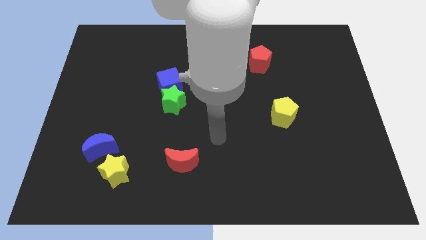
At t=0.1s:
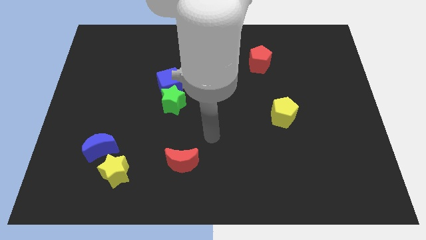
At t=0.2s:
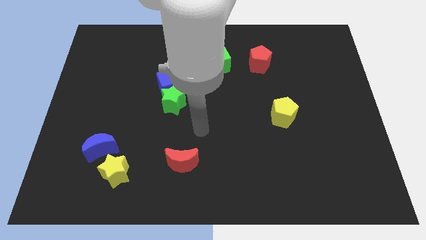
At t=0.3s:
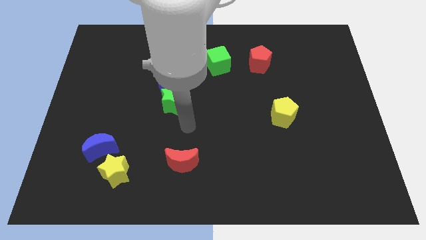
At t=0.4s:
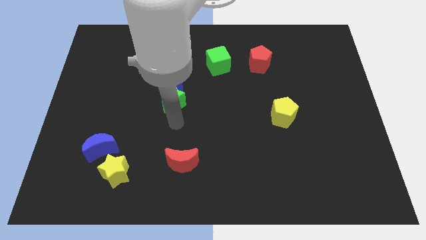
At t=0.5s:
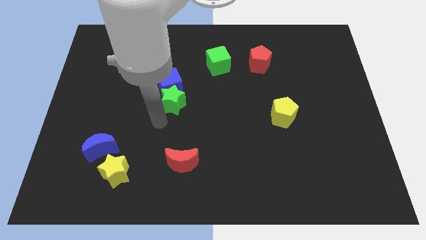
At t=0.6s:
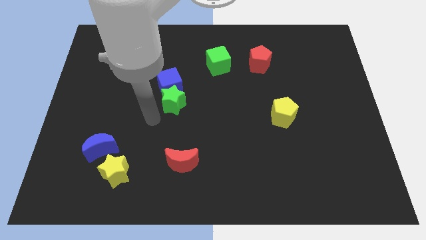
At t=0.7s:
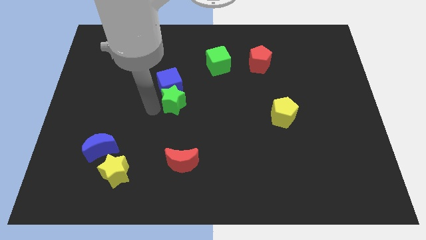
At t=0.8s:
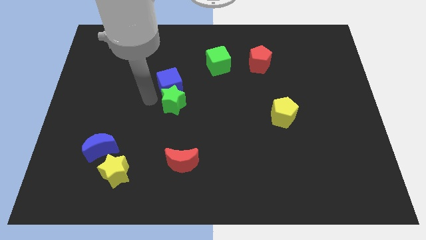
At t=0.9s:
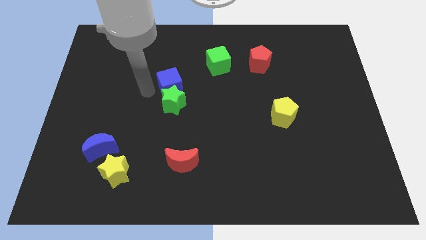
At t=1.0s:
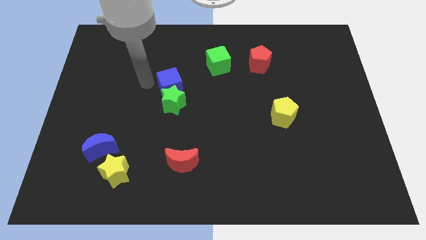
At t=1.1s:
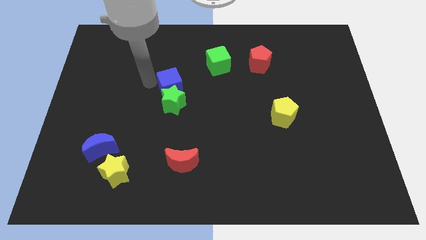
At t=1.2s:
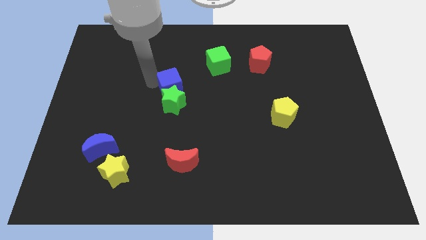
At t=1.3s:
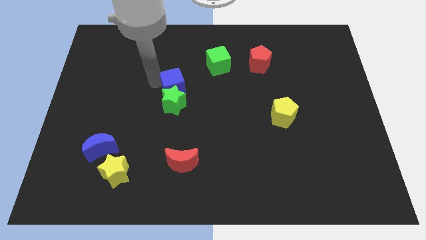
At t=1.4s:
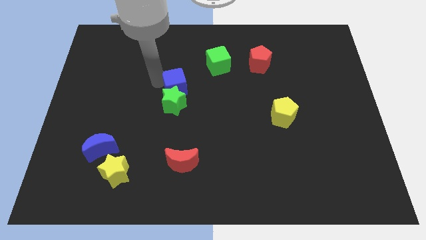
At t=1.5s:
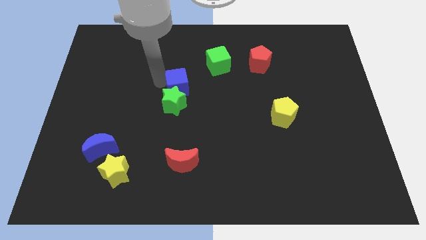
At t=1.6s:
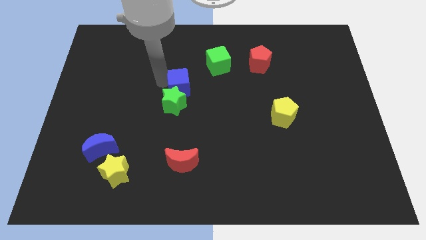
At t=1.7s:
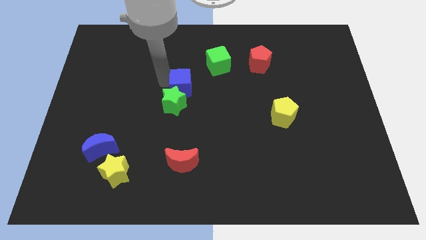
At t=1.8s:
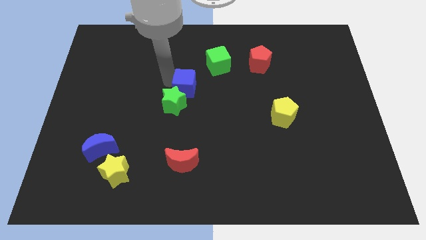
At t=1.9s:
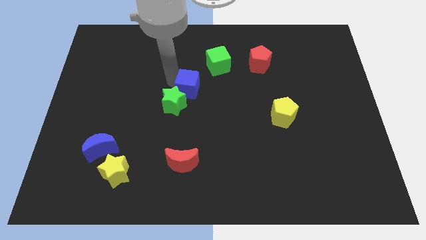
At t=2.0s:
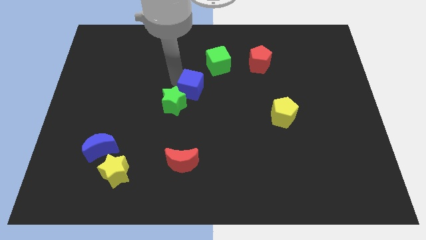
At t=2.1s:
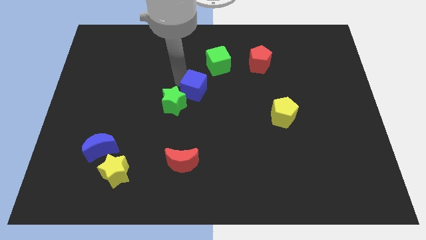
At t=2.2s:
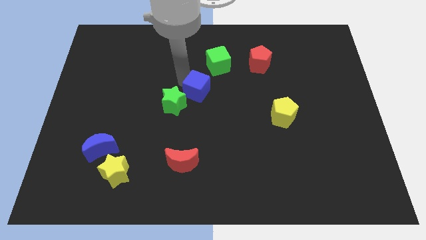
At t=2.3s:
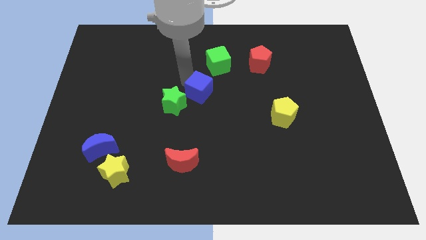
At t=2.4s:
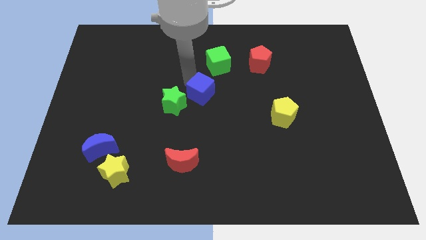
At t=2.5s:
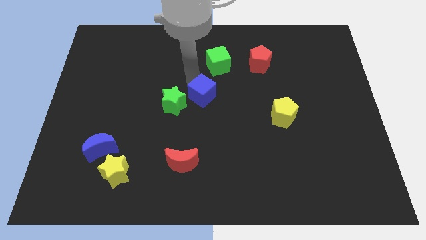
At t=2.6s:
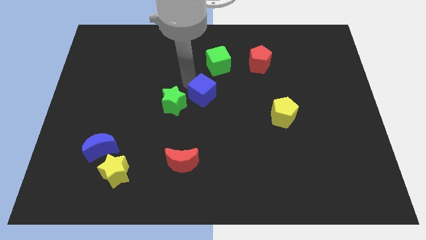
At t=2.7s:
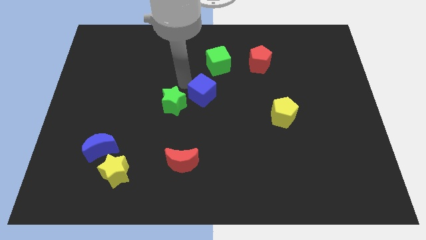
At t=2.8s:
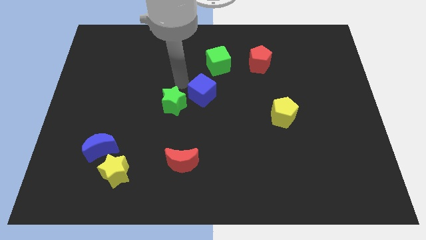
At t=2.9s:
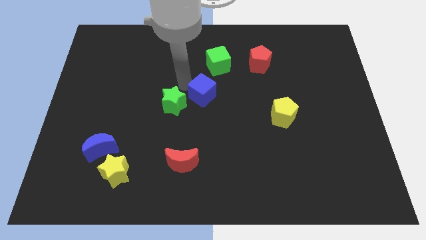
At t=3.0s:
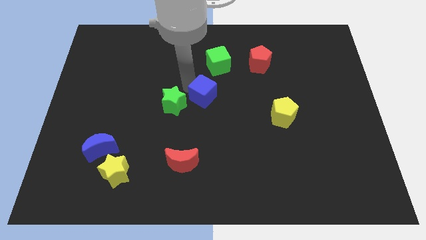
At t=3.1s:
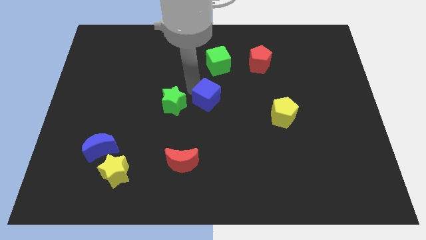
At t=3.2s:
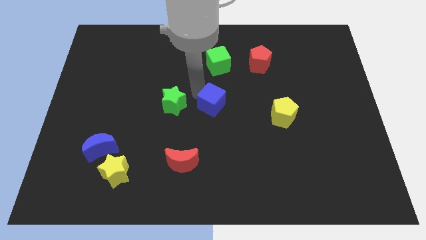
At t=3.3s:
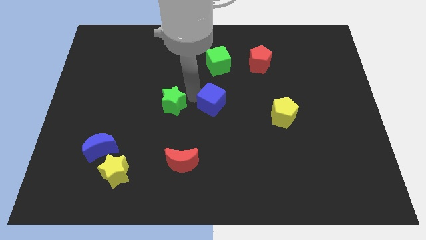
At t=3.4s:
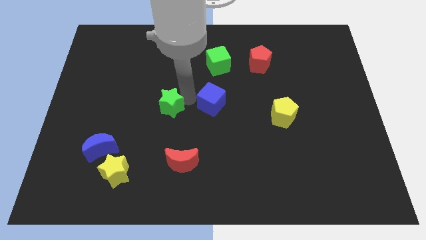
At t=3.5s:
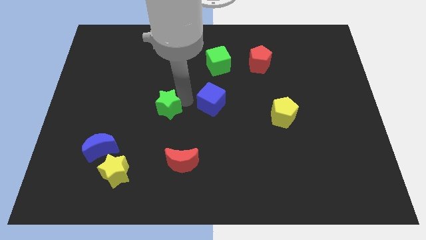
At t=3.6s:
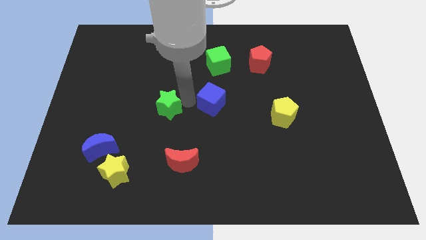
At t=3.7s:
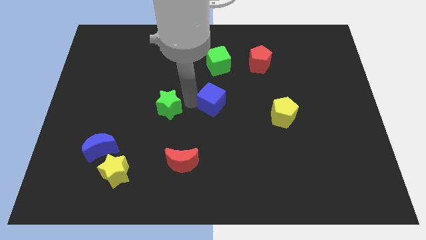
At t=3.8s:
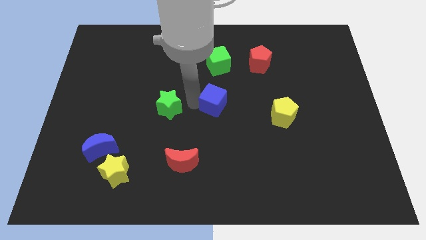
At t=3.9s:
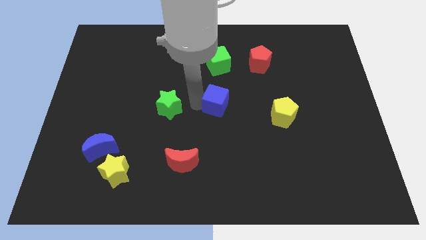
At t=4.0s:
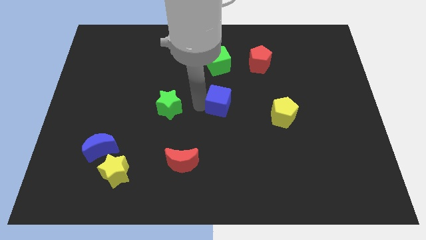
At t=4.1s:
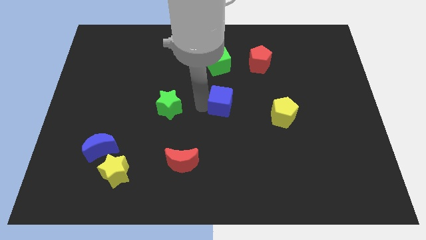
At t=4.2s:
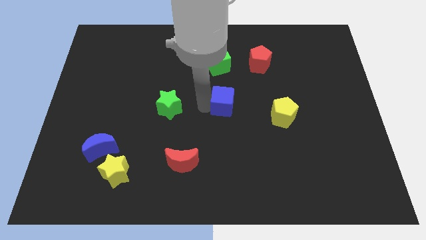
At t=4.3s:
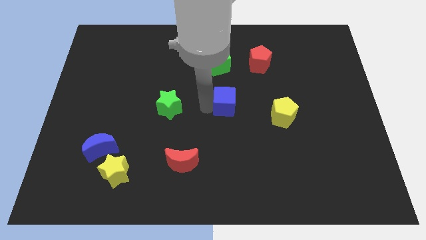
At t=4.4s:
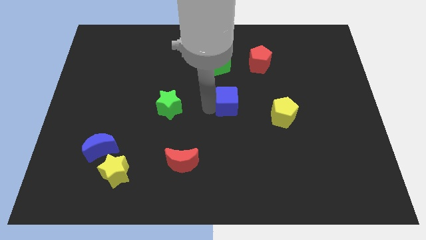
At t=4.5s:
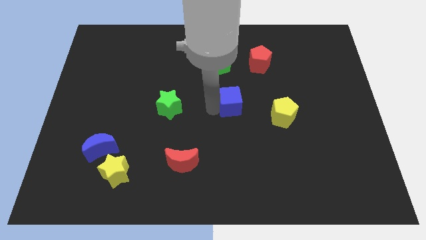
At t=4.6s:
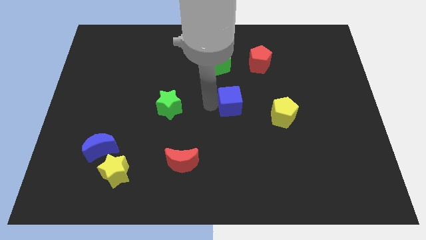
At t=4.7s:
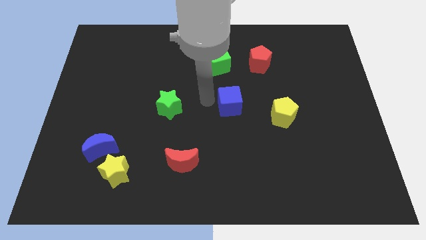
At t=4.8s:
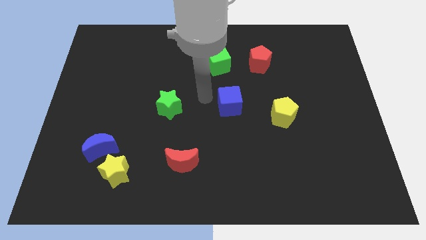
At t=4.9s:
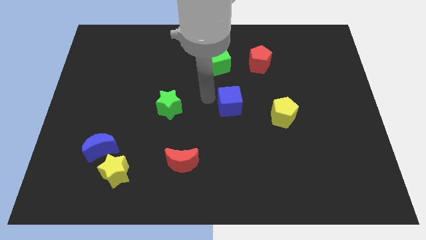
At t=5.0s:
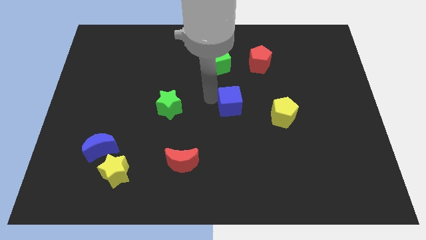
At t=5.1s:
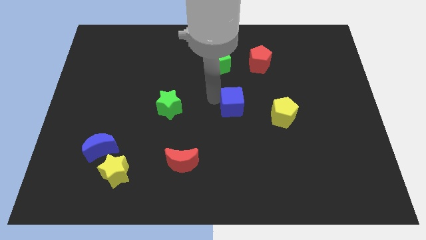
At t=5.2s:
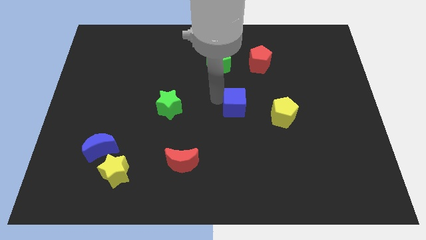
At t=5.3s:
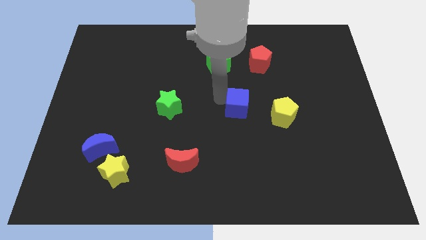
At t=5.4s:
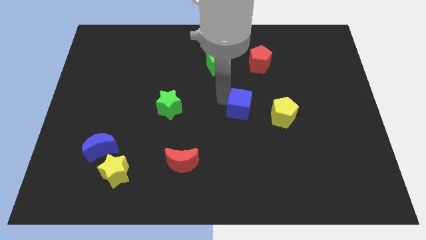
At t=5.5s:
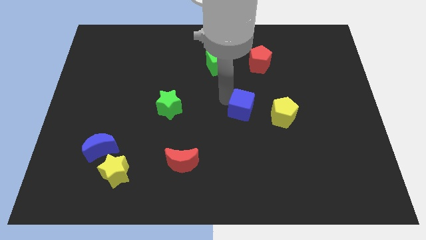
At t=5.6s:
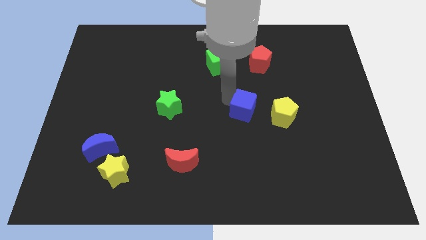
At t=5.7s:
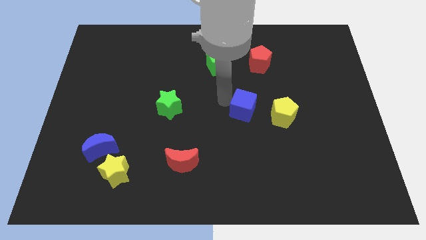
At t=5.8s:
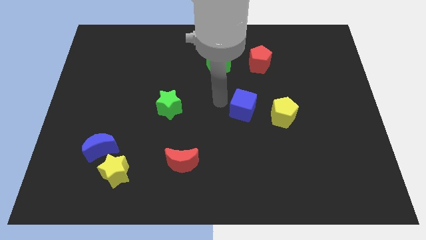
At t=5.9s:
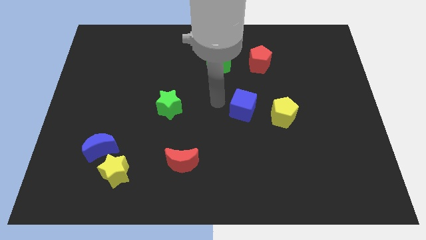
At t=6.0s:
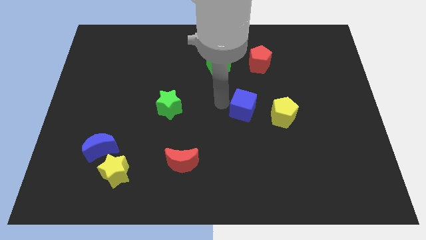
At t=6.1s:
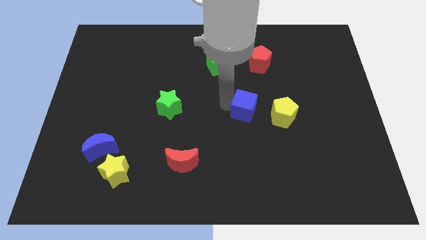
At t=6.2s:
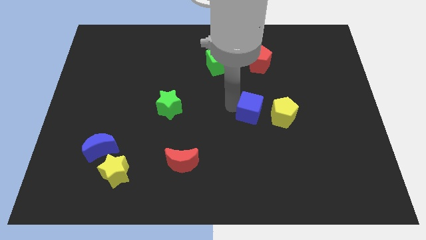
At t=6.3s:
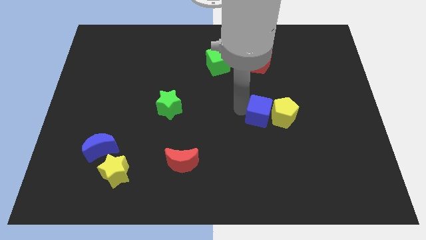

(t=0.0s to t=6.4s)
push the blue cube next to the yellow pentagon

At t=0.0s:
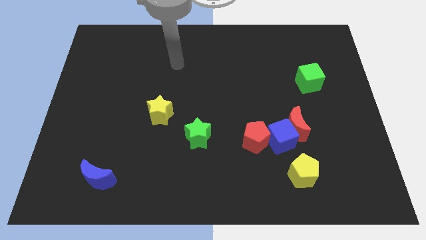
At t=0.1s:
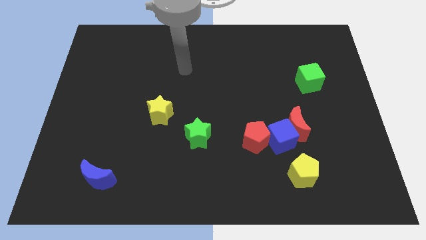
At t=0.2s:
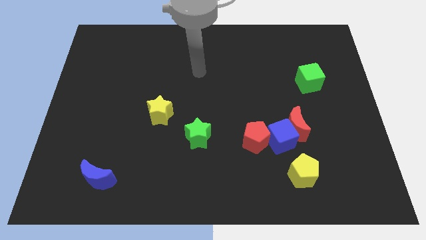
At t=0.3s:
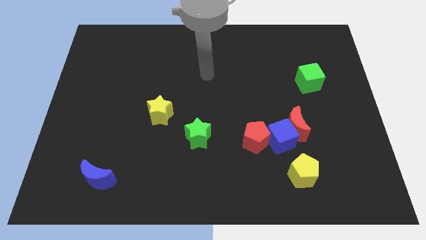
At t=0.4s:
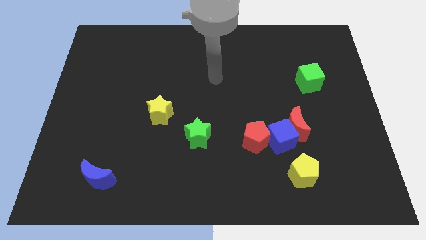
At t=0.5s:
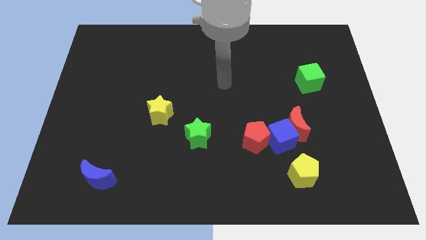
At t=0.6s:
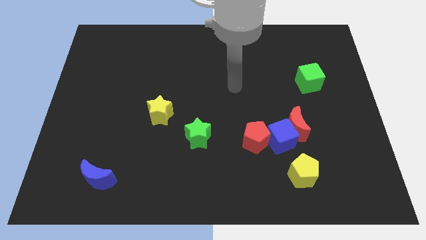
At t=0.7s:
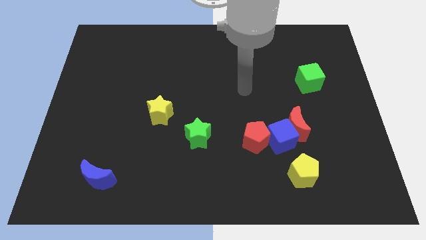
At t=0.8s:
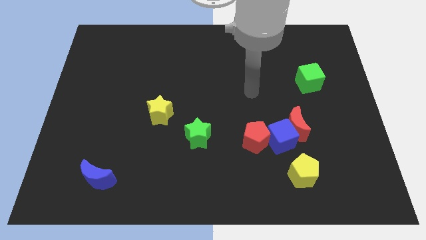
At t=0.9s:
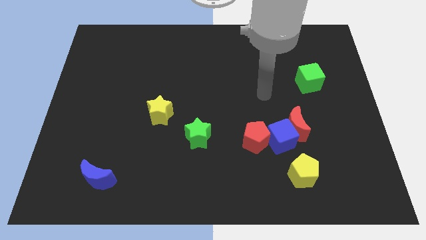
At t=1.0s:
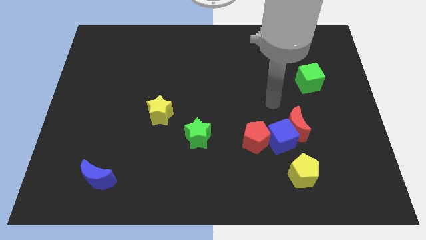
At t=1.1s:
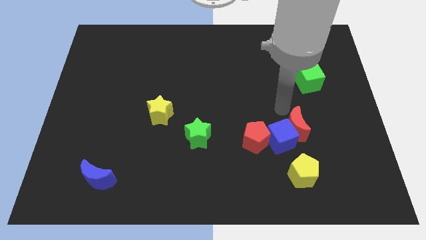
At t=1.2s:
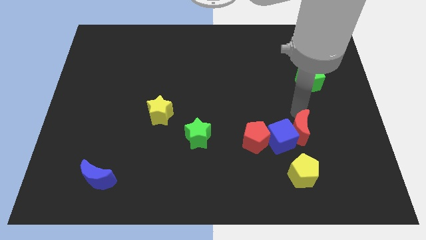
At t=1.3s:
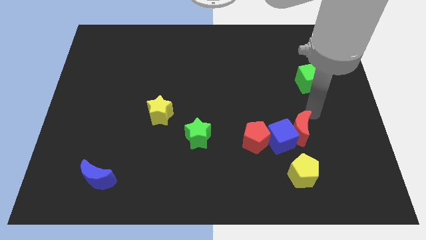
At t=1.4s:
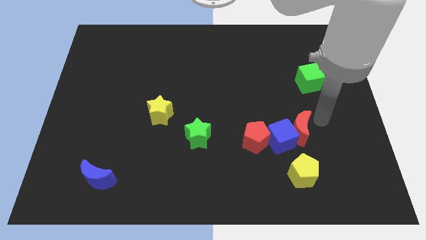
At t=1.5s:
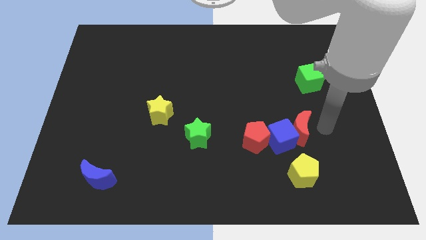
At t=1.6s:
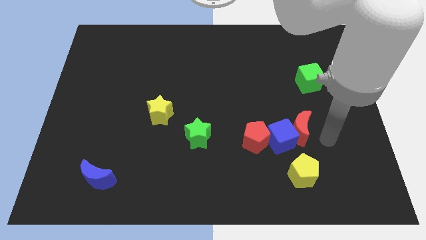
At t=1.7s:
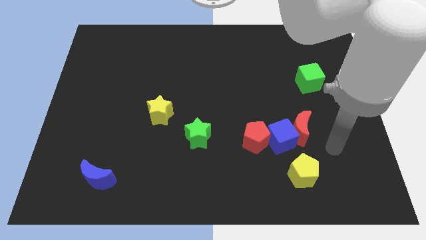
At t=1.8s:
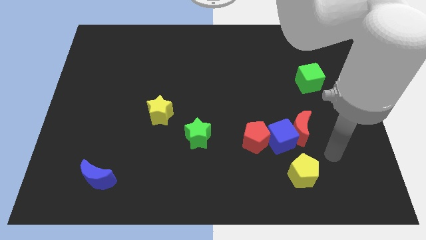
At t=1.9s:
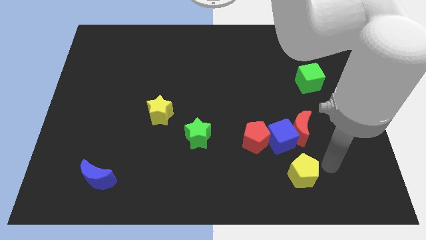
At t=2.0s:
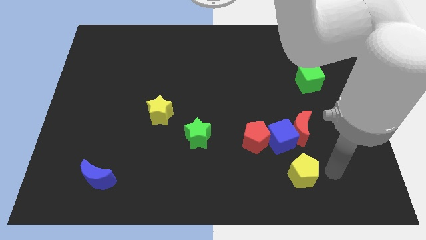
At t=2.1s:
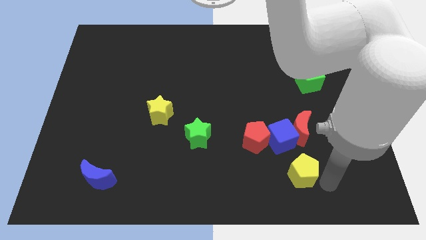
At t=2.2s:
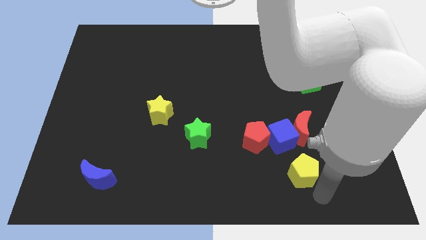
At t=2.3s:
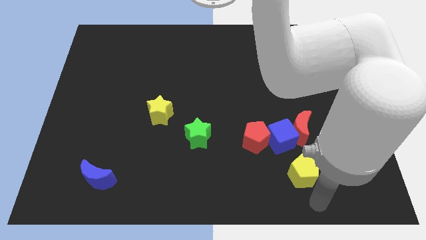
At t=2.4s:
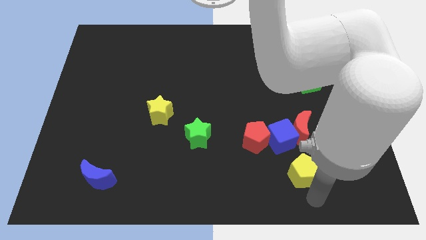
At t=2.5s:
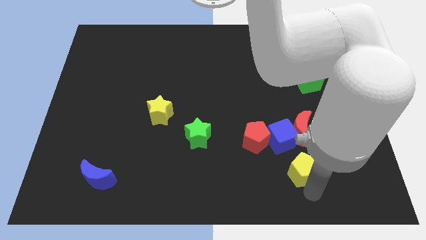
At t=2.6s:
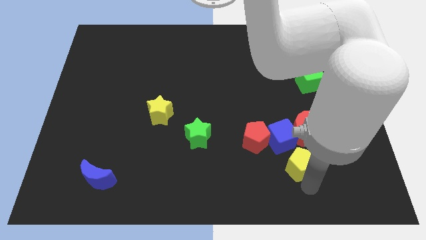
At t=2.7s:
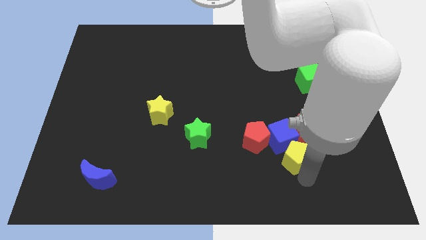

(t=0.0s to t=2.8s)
push the yellow pentagon towards the blue cube
